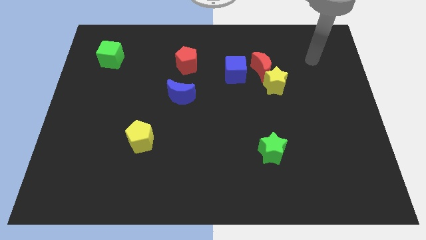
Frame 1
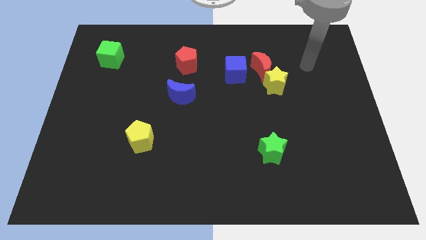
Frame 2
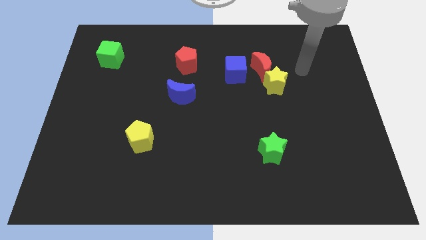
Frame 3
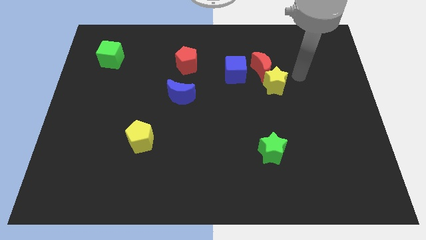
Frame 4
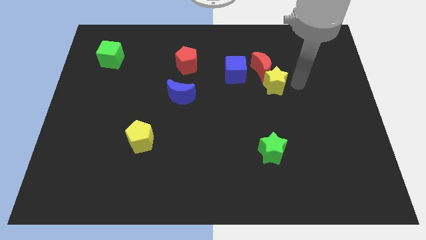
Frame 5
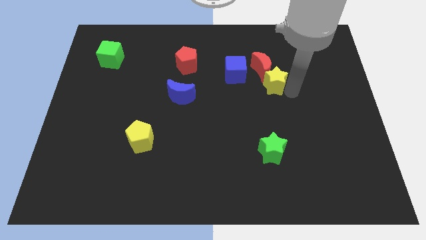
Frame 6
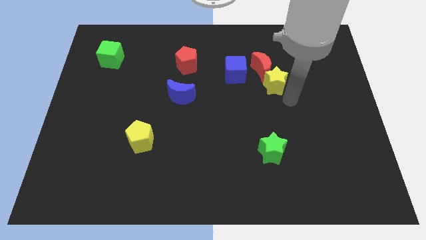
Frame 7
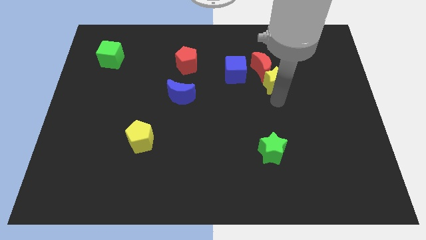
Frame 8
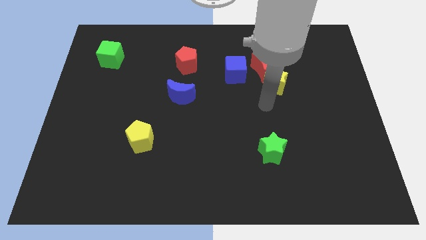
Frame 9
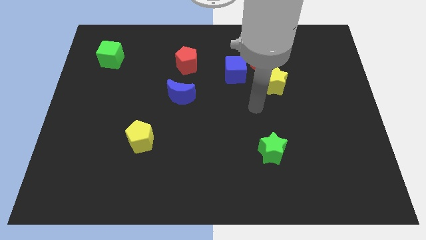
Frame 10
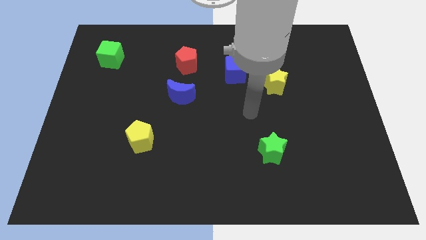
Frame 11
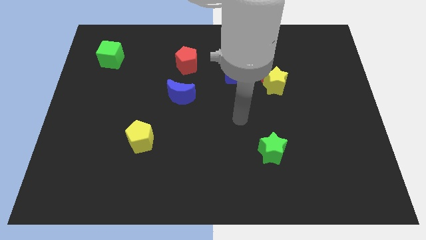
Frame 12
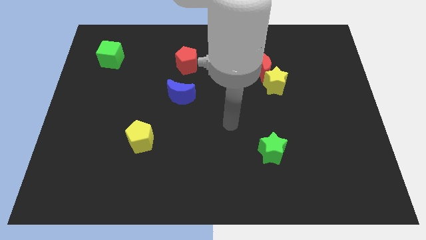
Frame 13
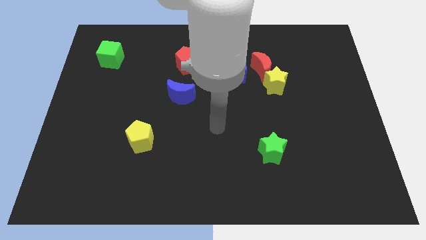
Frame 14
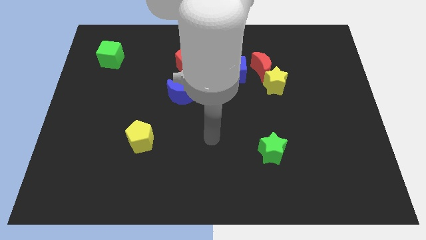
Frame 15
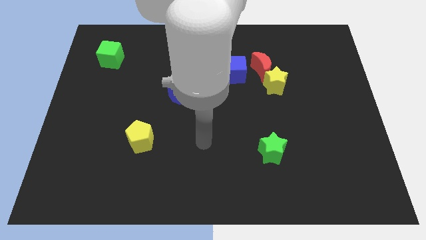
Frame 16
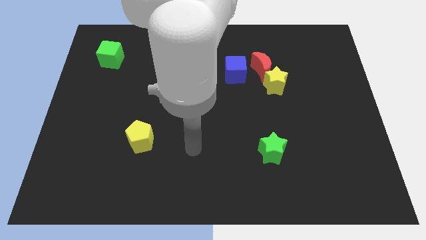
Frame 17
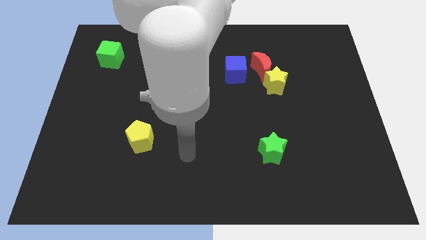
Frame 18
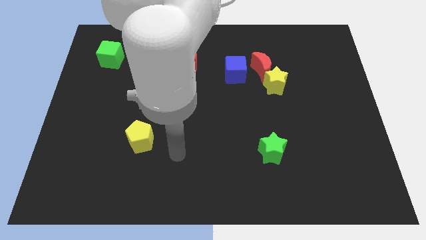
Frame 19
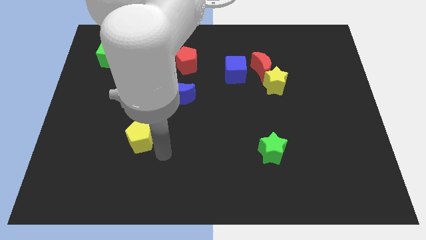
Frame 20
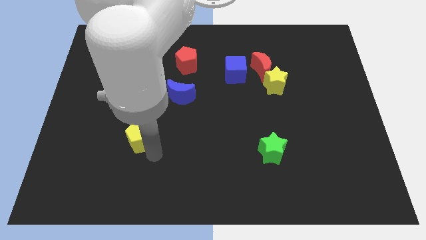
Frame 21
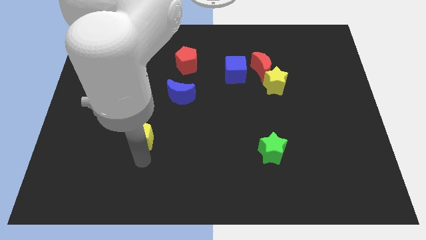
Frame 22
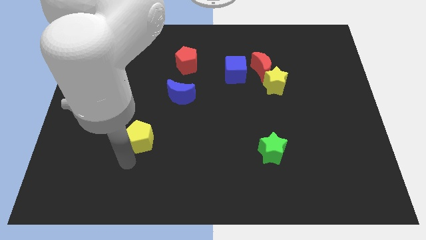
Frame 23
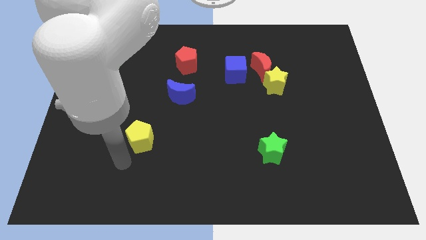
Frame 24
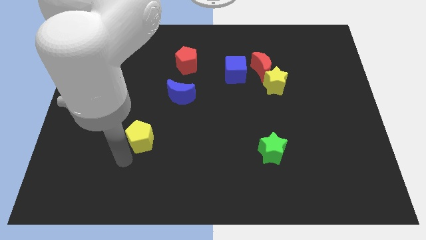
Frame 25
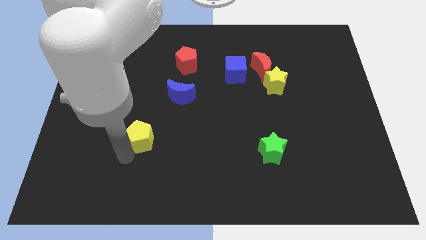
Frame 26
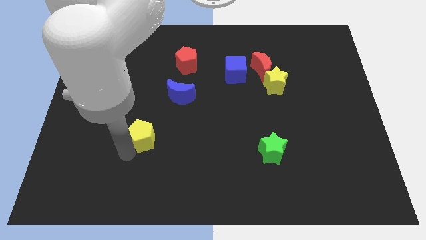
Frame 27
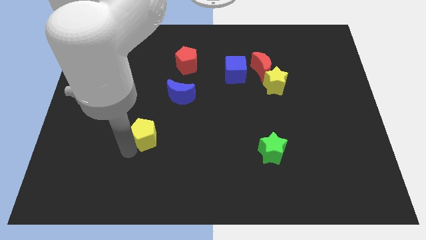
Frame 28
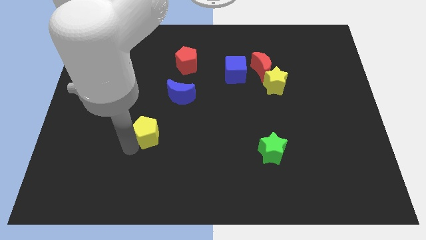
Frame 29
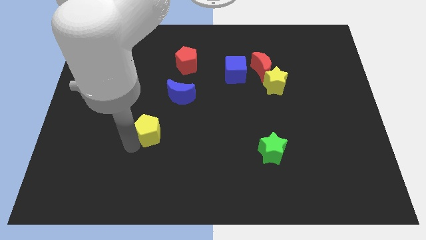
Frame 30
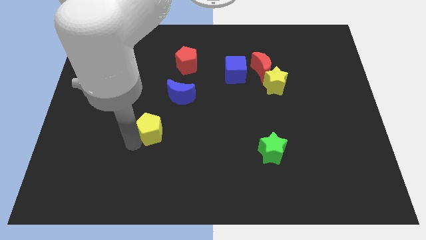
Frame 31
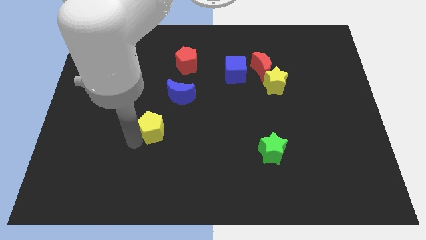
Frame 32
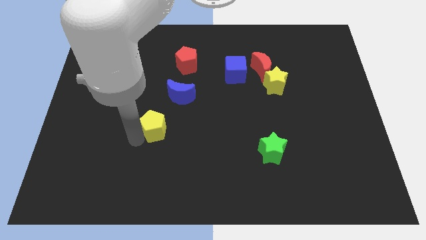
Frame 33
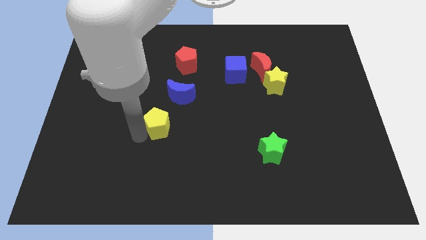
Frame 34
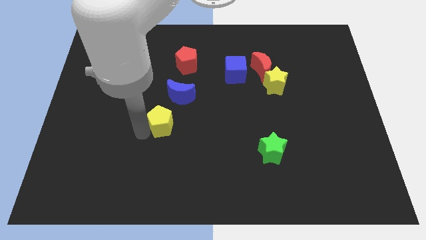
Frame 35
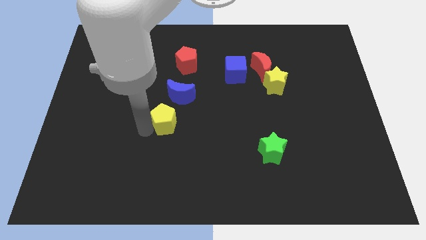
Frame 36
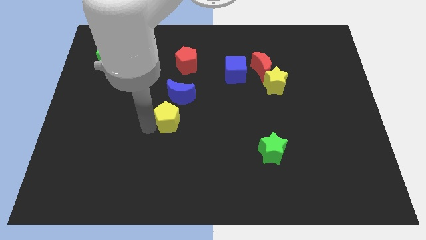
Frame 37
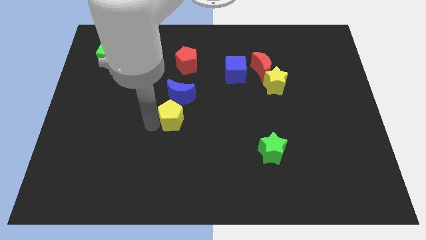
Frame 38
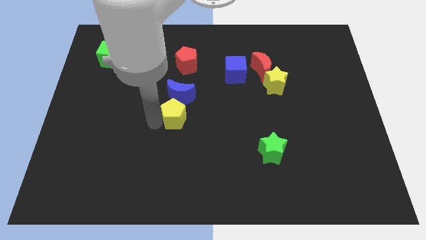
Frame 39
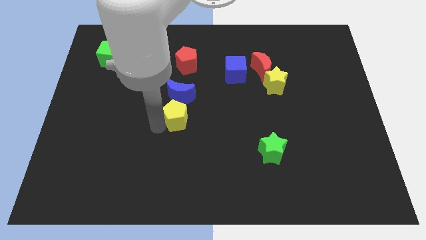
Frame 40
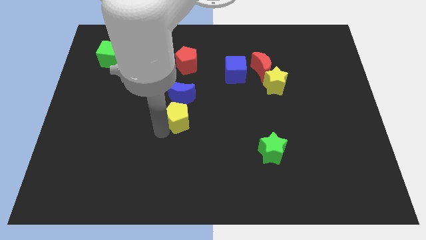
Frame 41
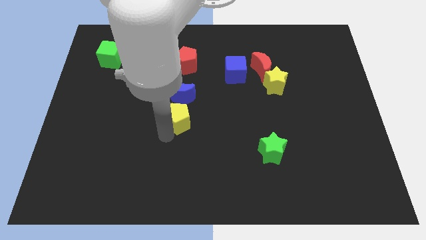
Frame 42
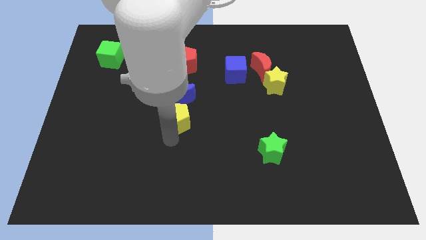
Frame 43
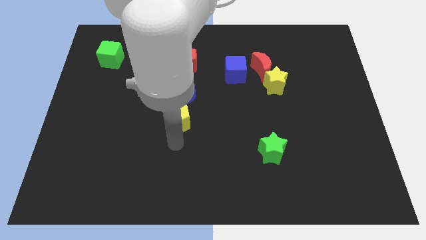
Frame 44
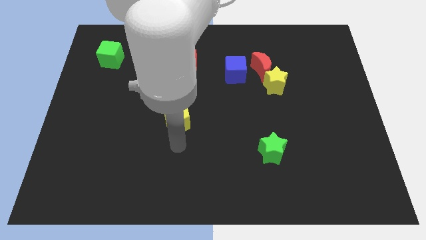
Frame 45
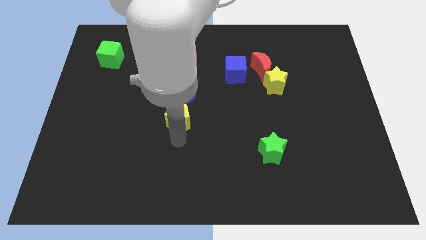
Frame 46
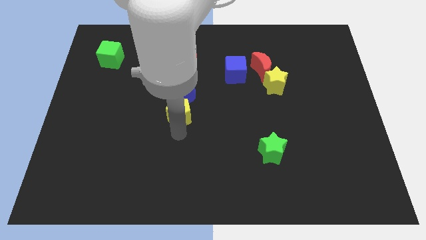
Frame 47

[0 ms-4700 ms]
slide the yellow pentagon next to the blue moon

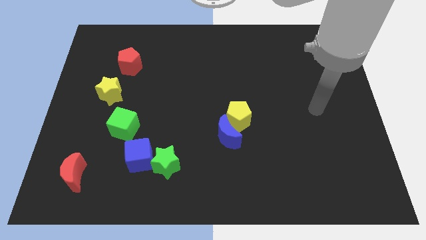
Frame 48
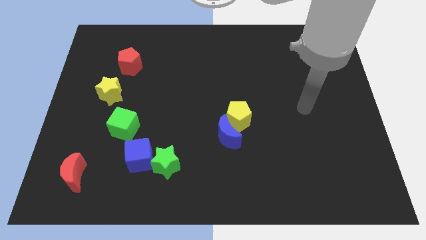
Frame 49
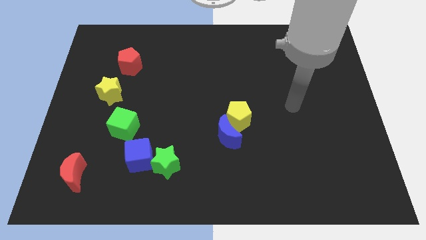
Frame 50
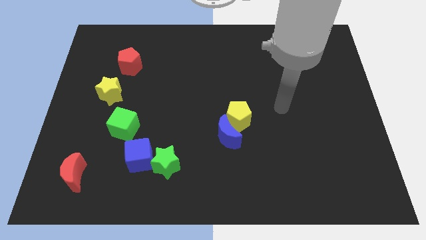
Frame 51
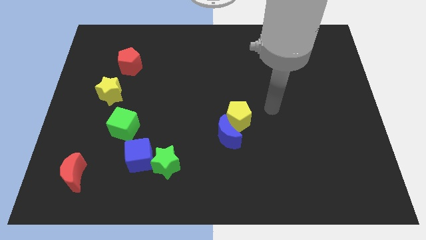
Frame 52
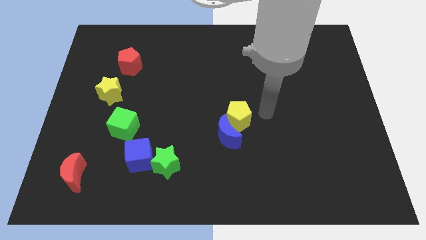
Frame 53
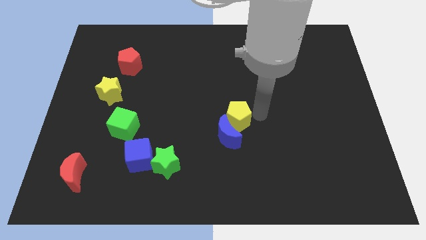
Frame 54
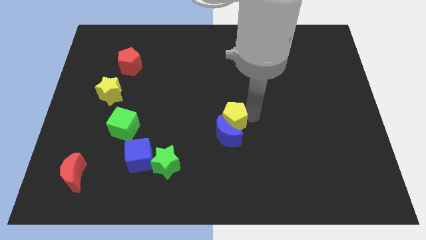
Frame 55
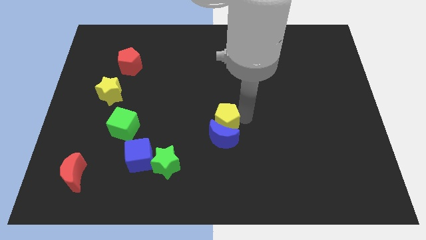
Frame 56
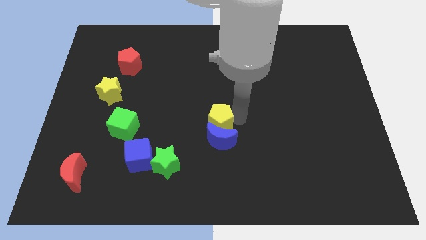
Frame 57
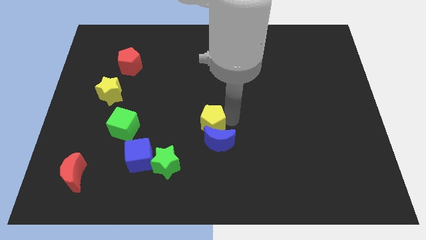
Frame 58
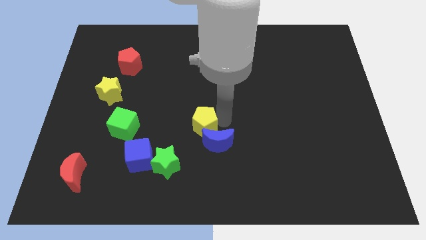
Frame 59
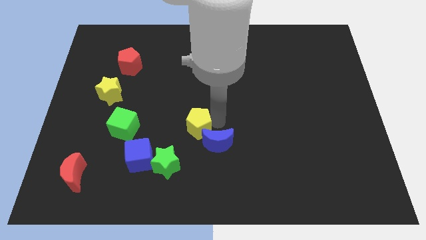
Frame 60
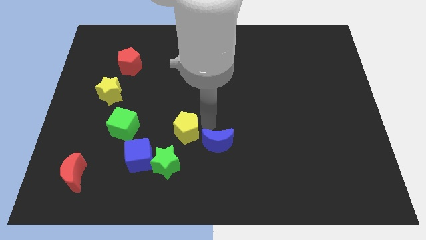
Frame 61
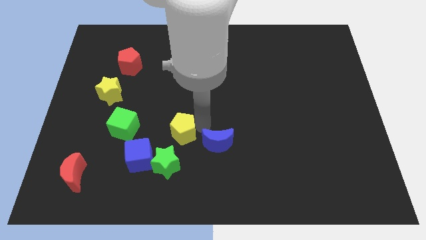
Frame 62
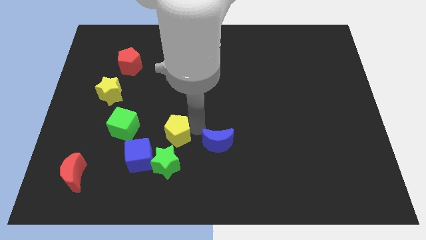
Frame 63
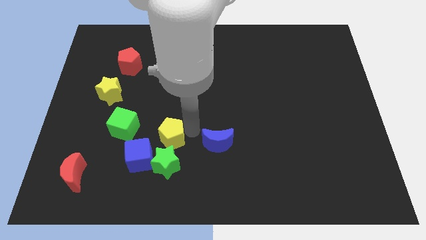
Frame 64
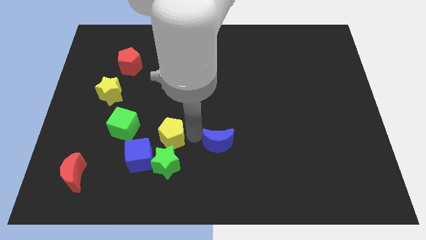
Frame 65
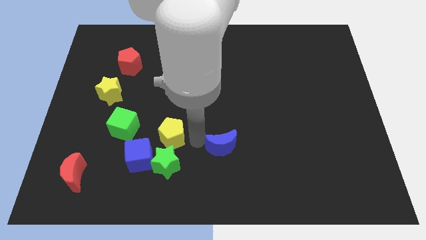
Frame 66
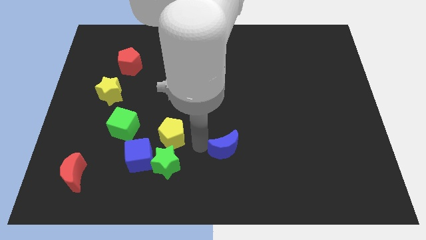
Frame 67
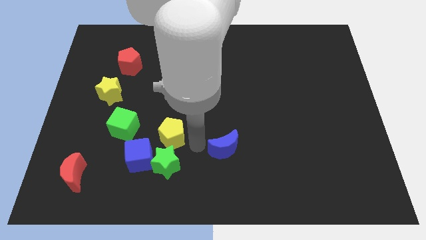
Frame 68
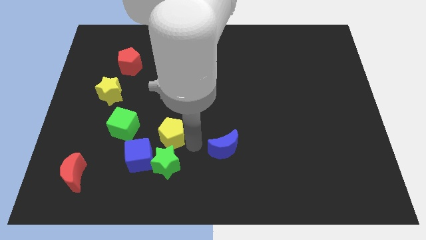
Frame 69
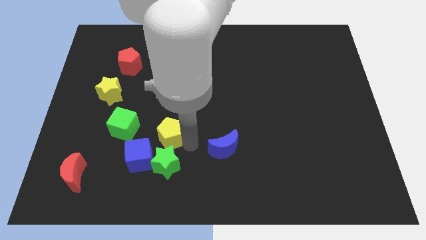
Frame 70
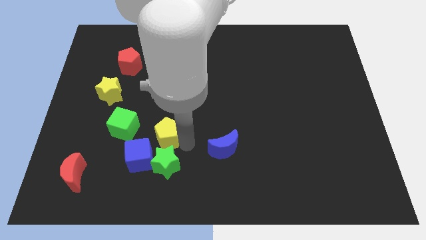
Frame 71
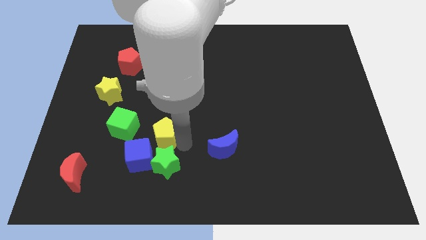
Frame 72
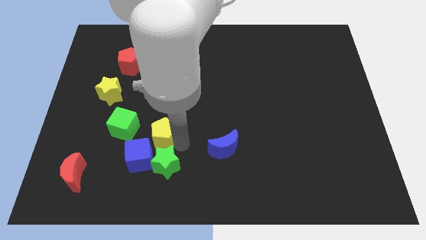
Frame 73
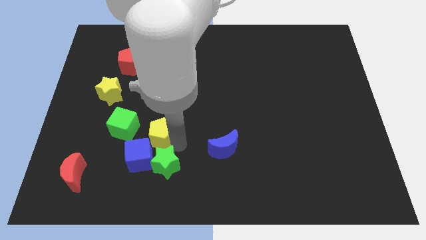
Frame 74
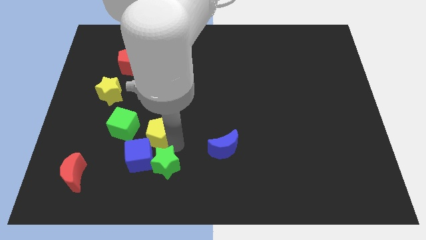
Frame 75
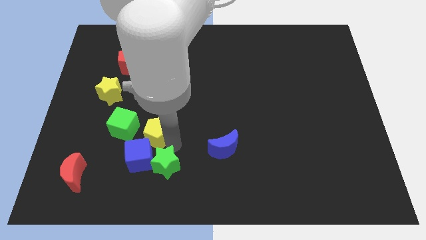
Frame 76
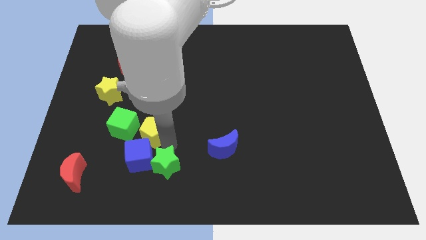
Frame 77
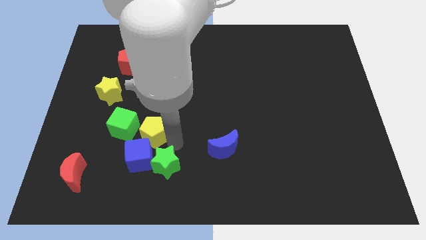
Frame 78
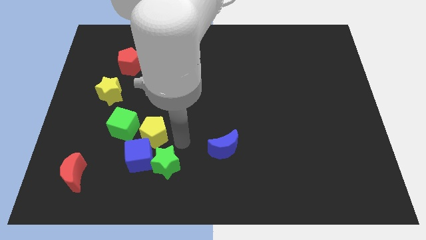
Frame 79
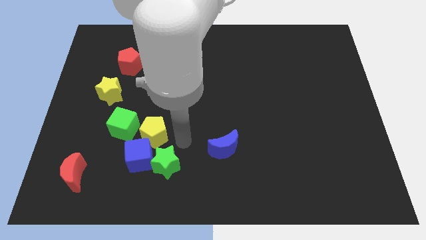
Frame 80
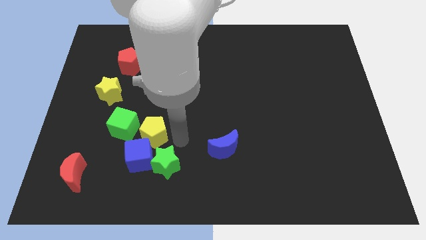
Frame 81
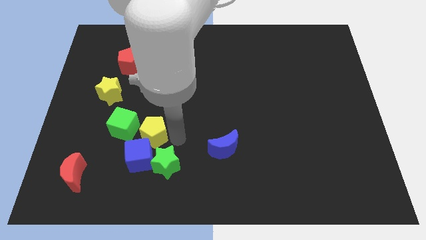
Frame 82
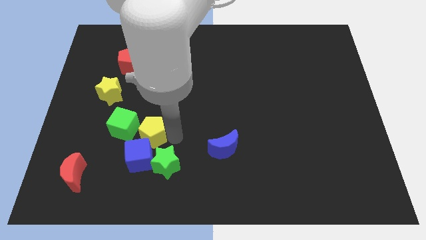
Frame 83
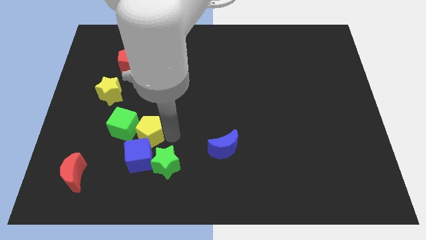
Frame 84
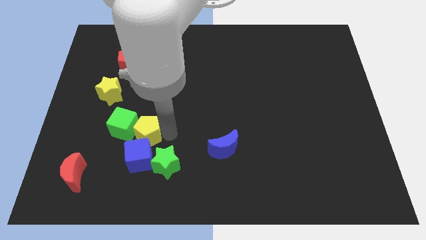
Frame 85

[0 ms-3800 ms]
put the yellow pentagon close to the green cube
